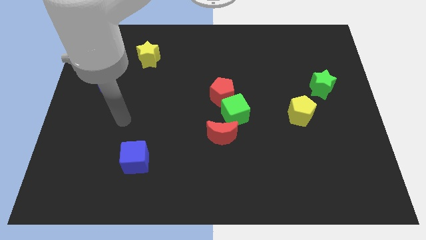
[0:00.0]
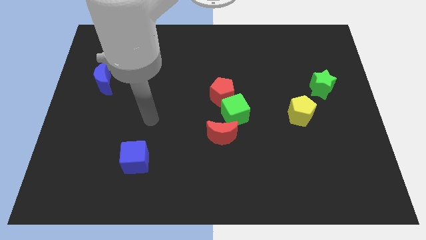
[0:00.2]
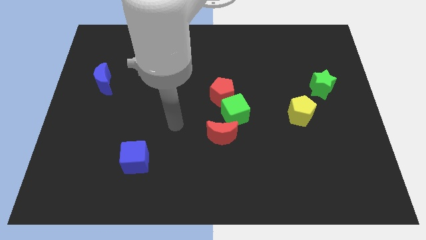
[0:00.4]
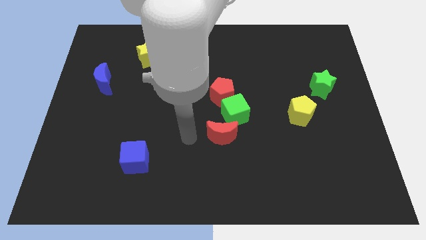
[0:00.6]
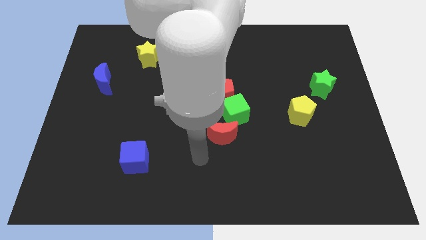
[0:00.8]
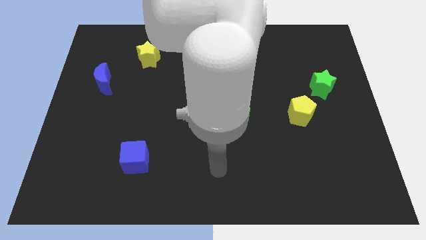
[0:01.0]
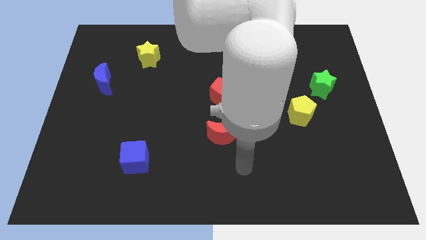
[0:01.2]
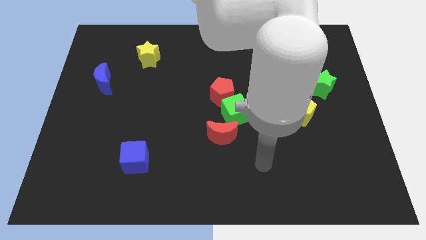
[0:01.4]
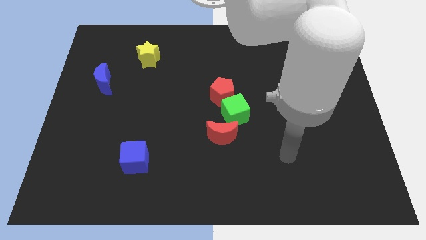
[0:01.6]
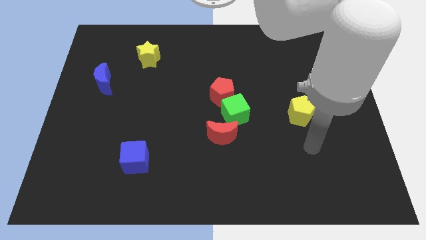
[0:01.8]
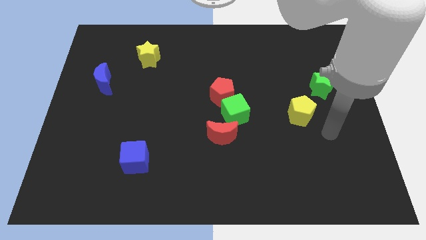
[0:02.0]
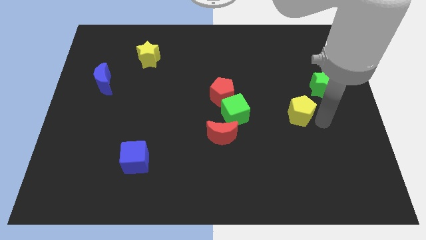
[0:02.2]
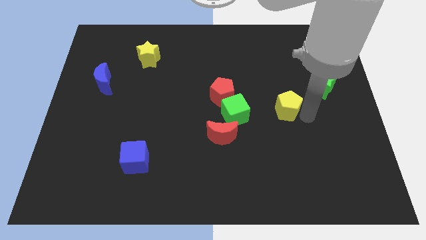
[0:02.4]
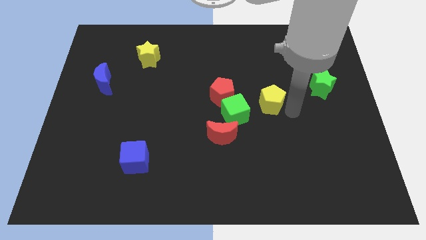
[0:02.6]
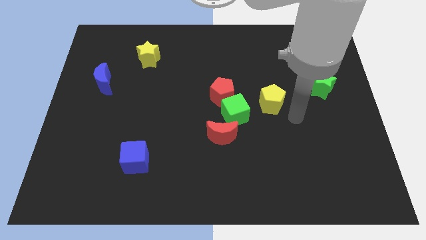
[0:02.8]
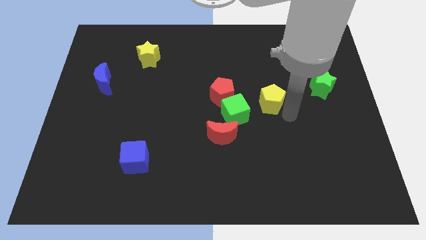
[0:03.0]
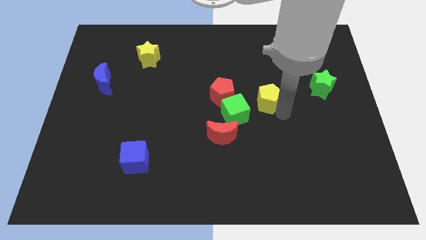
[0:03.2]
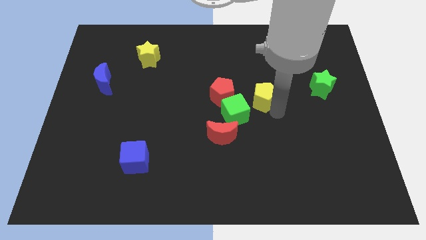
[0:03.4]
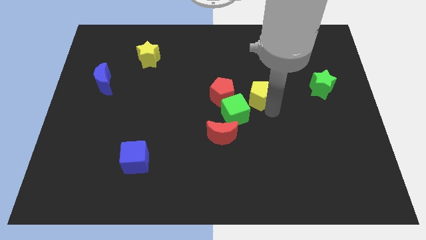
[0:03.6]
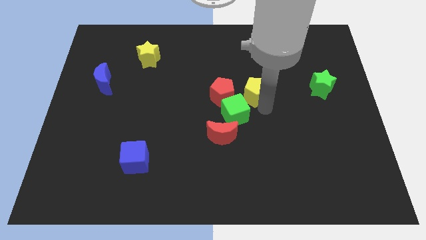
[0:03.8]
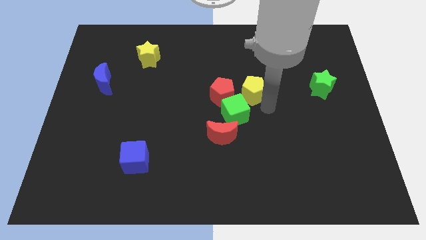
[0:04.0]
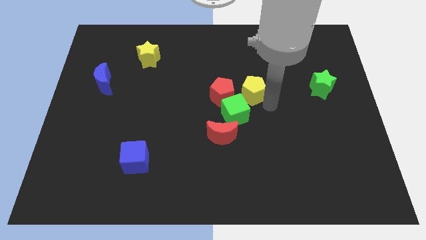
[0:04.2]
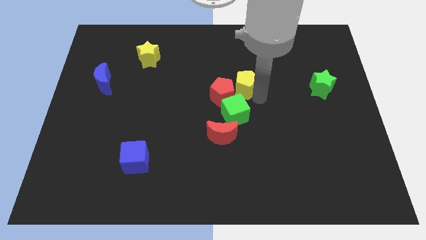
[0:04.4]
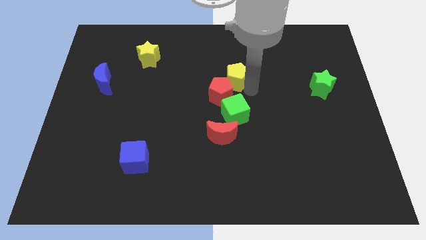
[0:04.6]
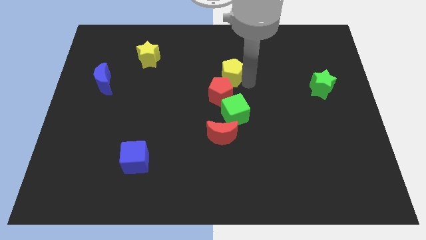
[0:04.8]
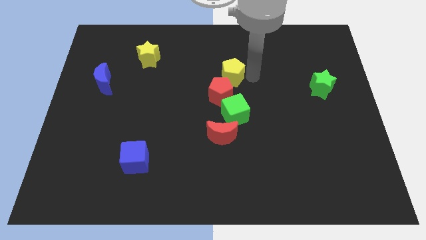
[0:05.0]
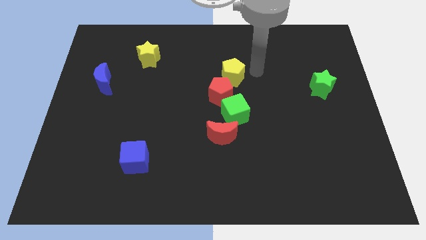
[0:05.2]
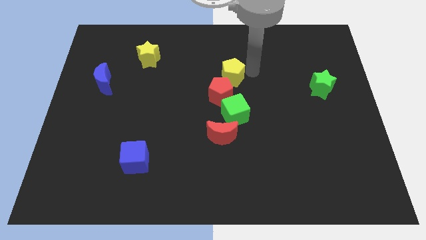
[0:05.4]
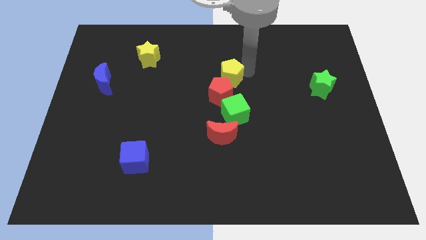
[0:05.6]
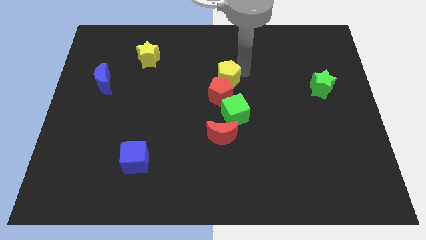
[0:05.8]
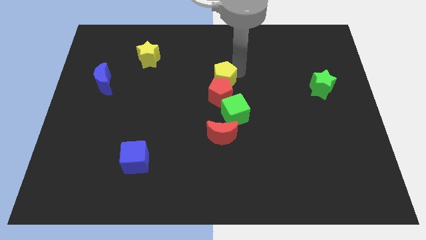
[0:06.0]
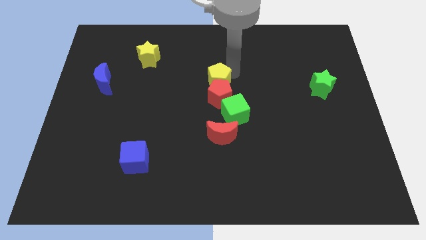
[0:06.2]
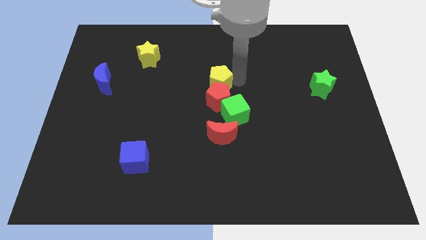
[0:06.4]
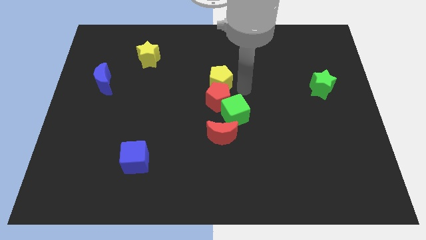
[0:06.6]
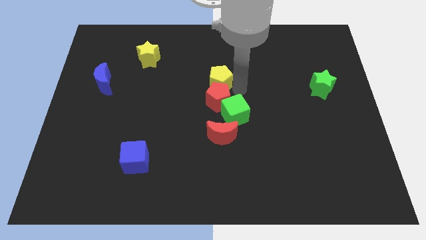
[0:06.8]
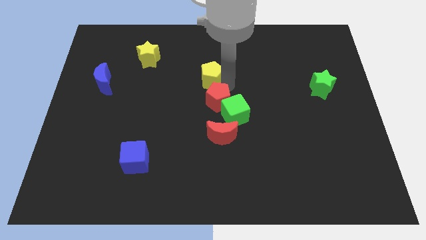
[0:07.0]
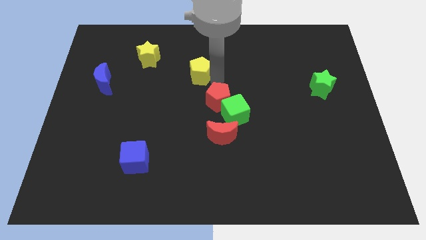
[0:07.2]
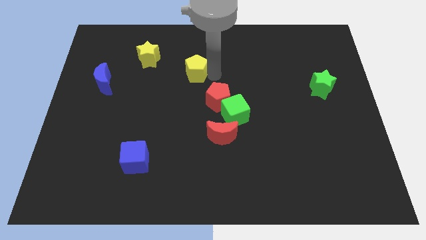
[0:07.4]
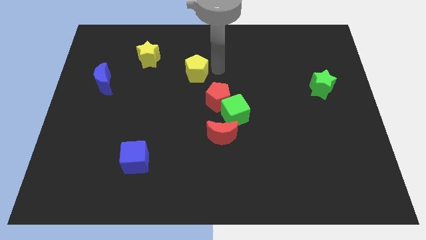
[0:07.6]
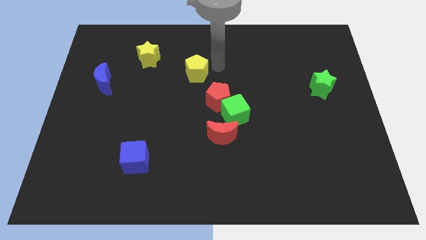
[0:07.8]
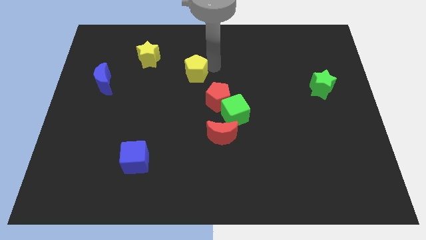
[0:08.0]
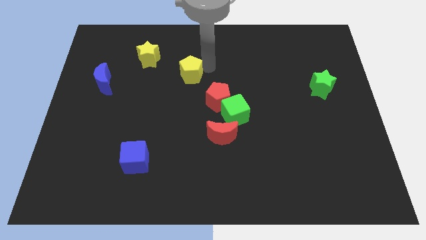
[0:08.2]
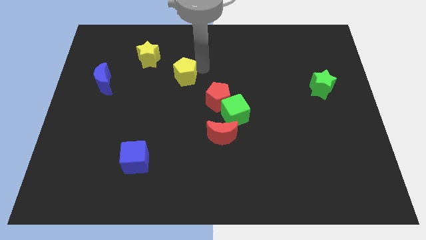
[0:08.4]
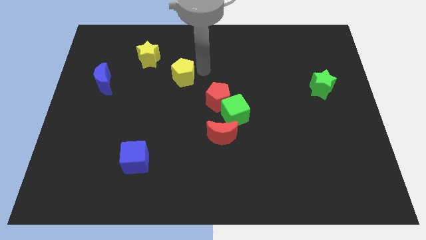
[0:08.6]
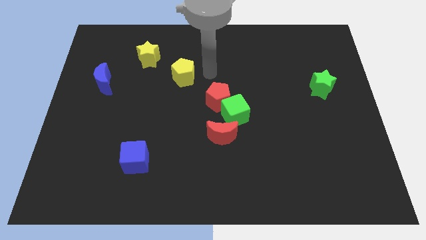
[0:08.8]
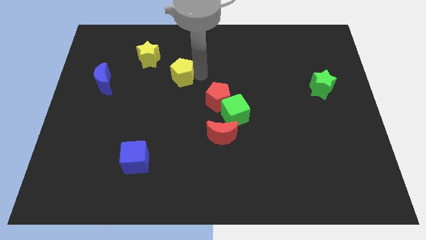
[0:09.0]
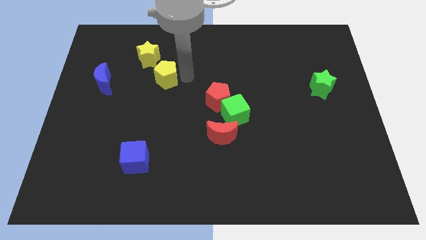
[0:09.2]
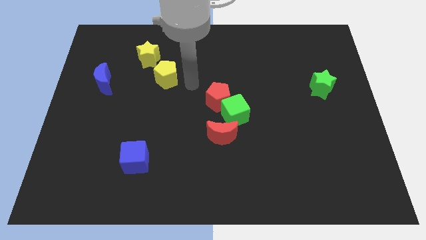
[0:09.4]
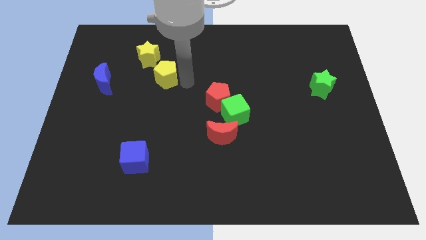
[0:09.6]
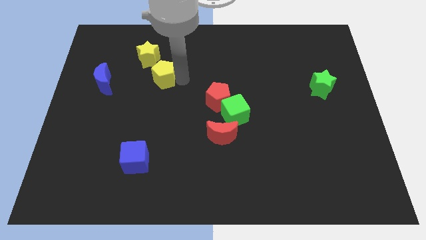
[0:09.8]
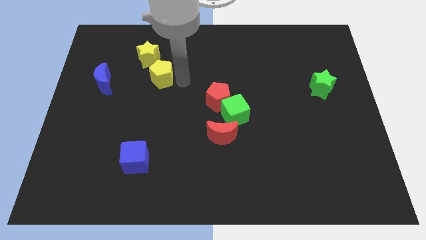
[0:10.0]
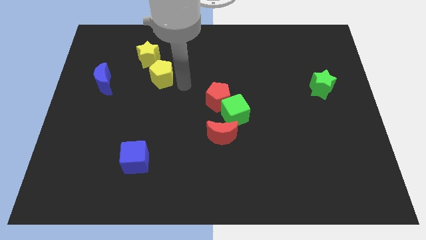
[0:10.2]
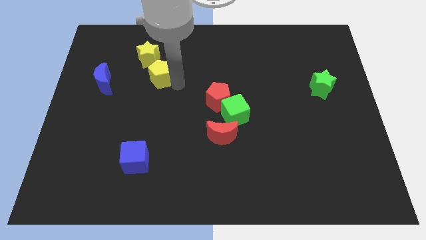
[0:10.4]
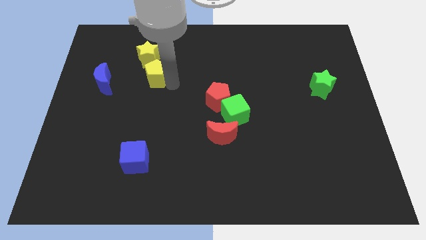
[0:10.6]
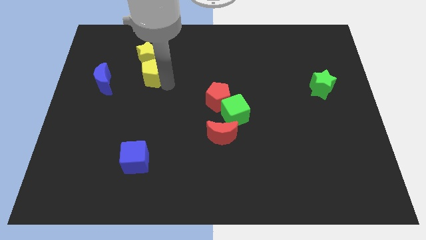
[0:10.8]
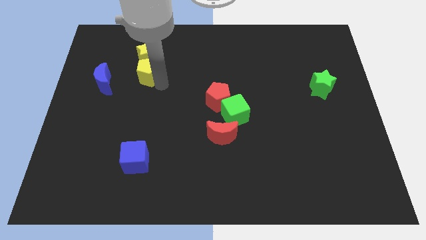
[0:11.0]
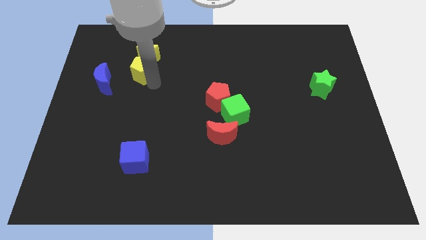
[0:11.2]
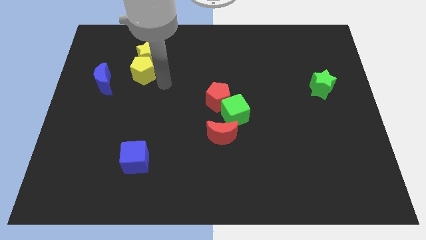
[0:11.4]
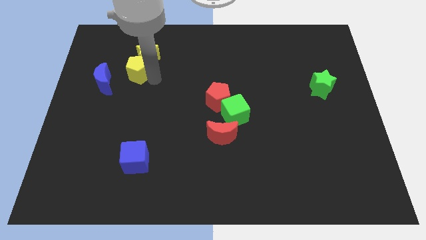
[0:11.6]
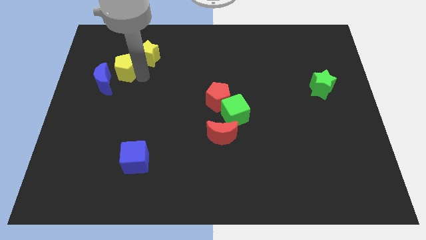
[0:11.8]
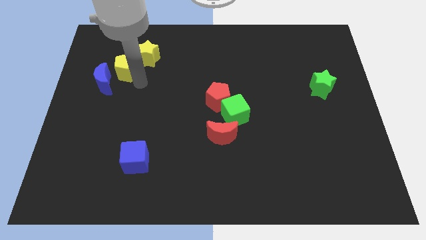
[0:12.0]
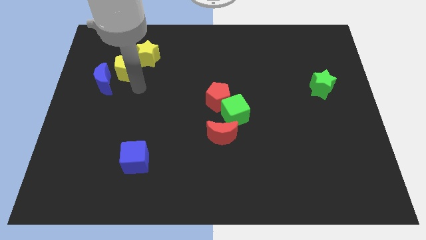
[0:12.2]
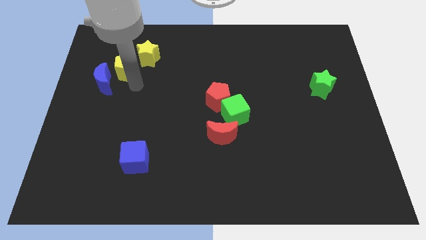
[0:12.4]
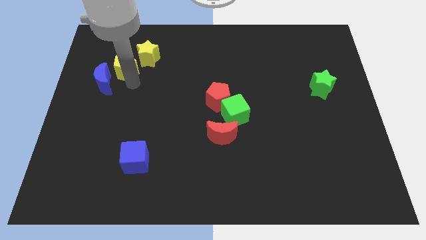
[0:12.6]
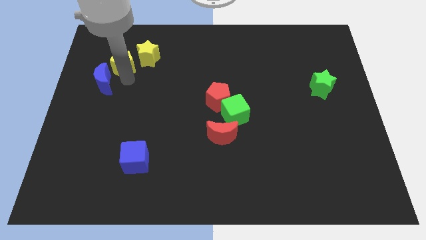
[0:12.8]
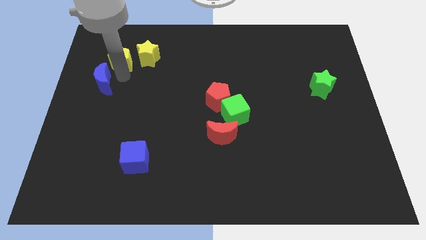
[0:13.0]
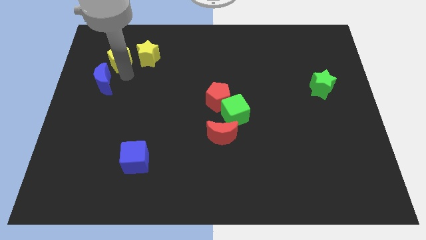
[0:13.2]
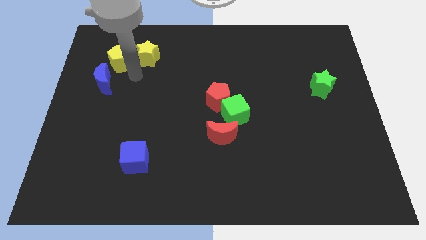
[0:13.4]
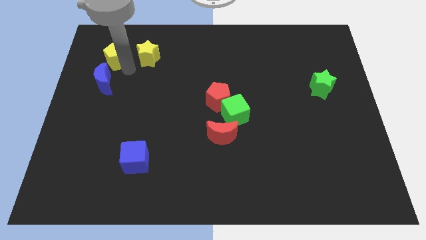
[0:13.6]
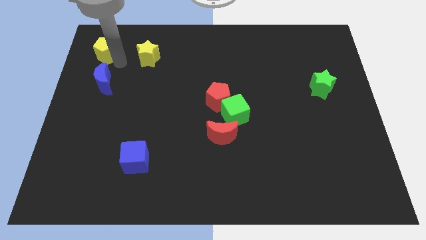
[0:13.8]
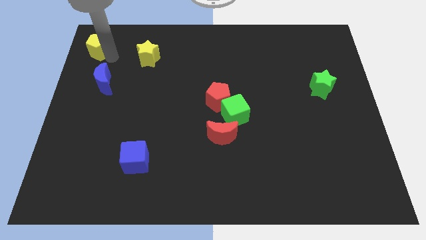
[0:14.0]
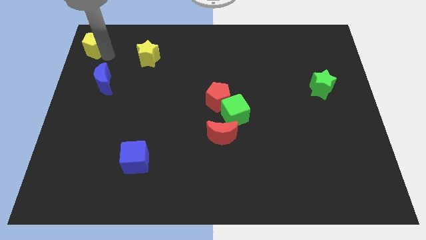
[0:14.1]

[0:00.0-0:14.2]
push the yellow pentagon to the top left
